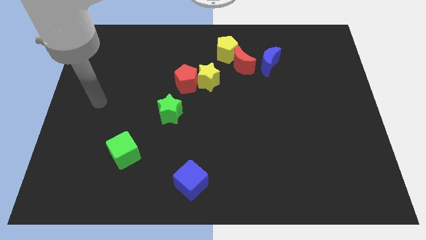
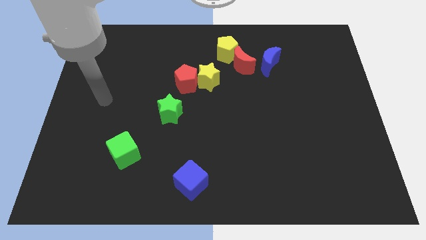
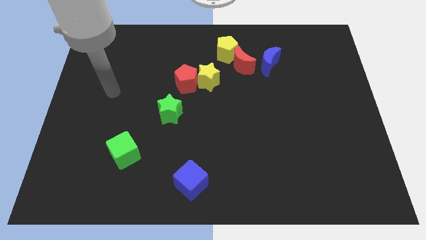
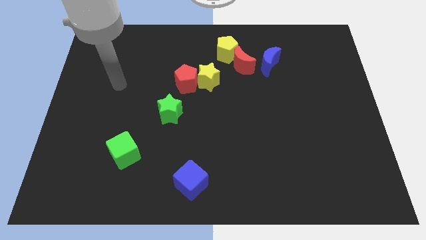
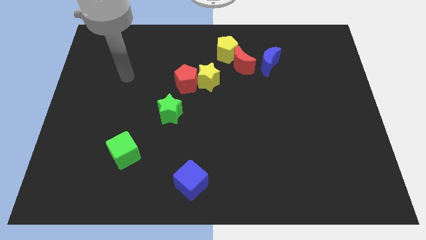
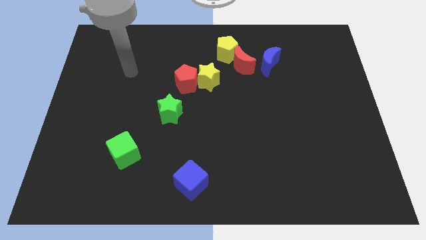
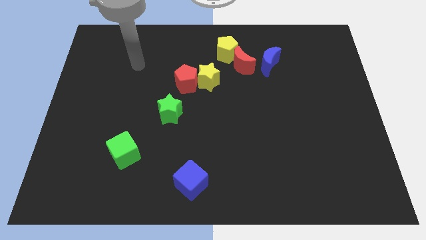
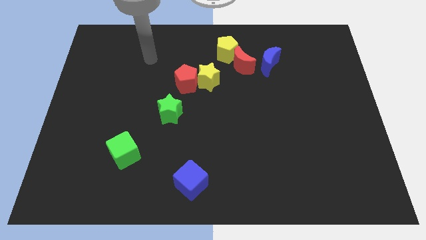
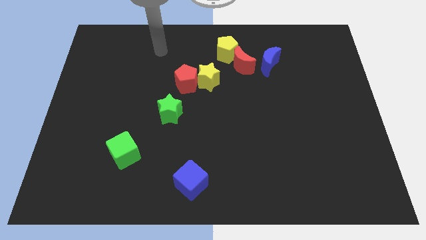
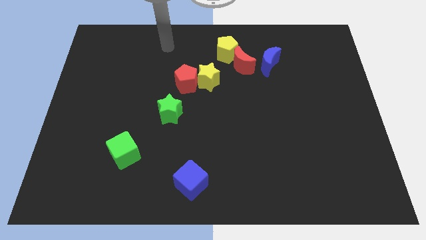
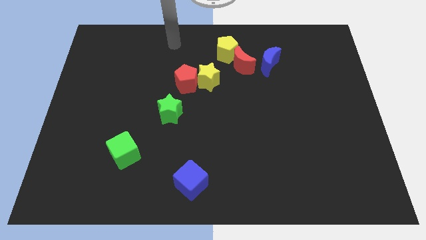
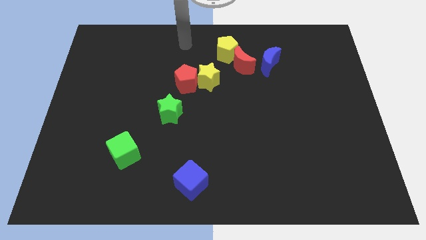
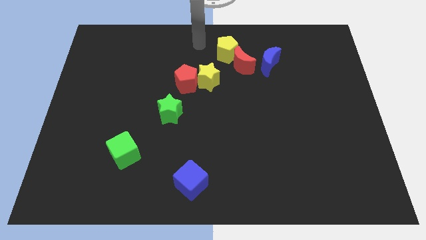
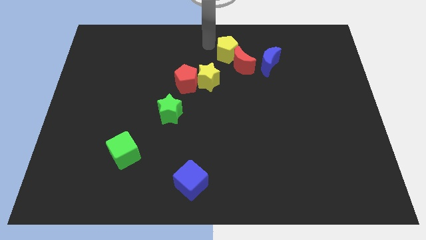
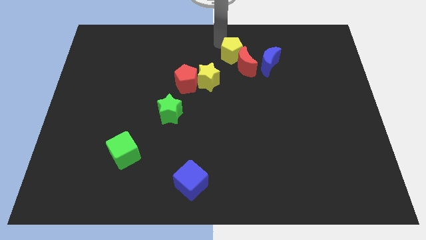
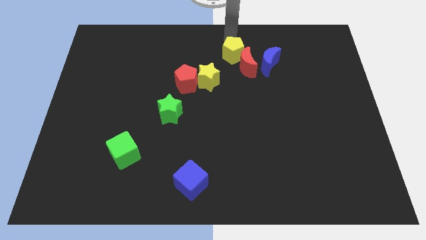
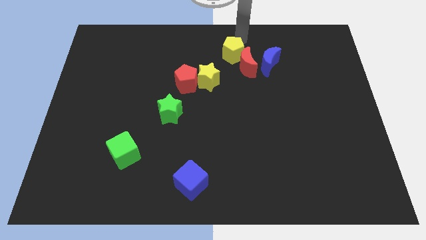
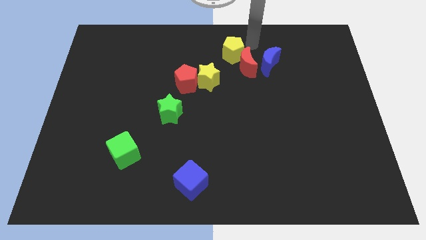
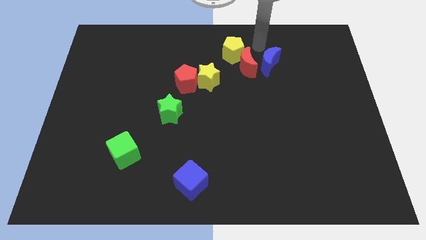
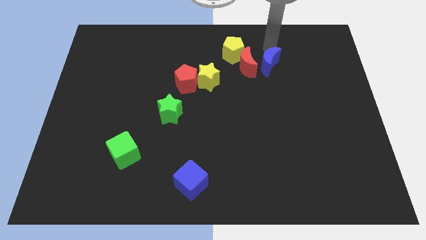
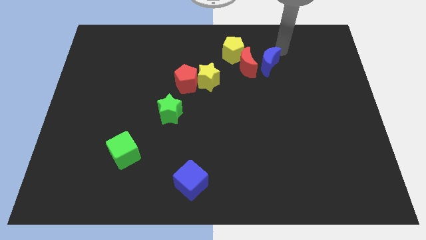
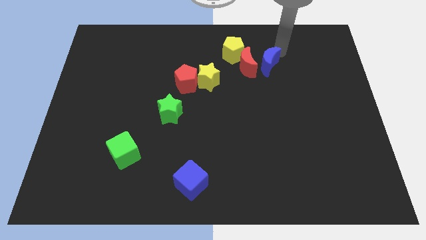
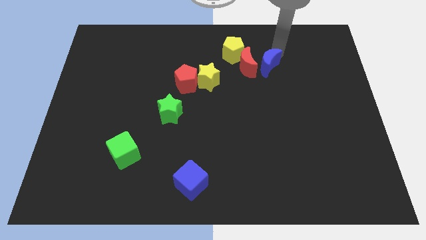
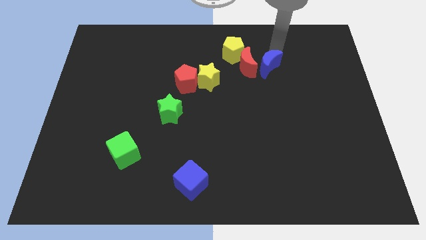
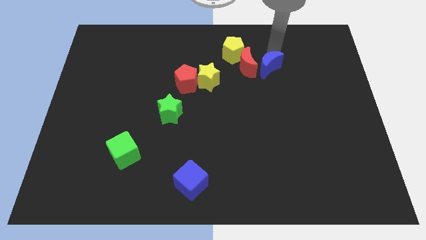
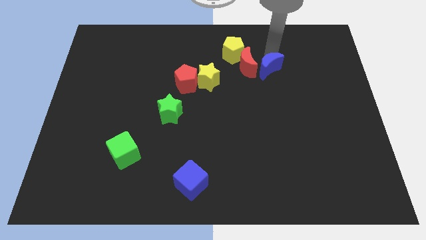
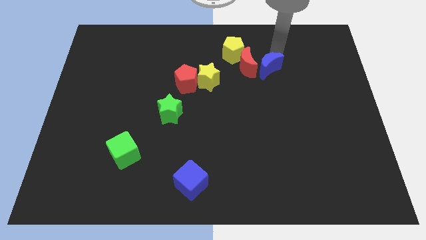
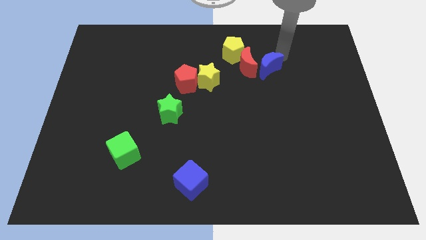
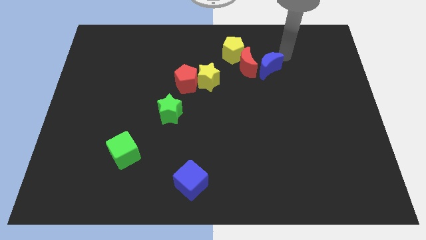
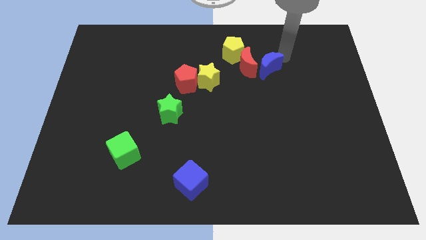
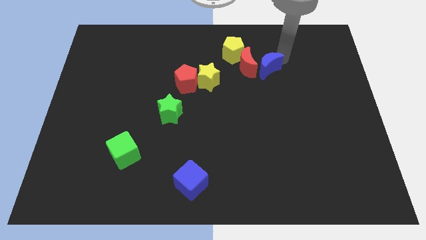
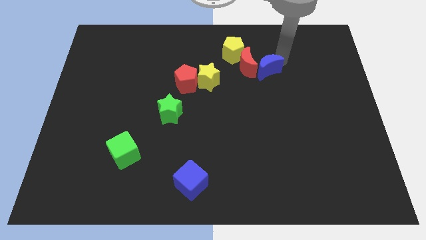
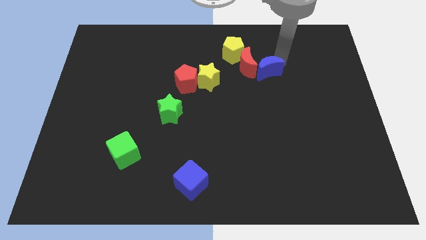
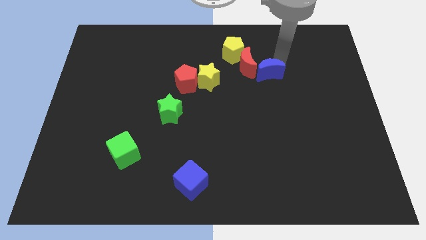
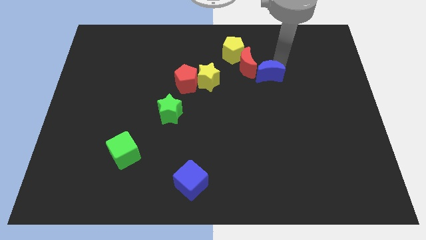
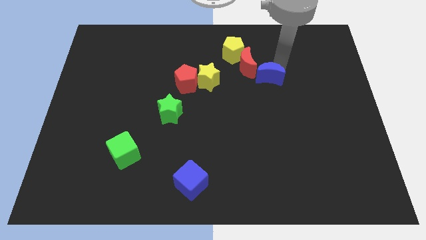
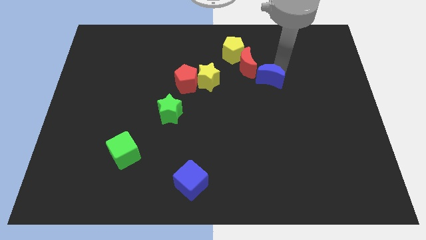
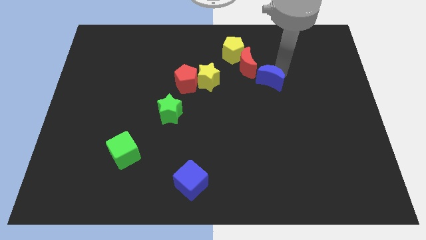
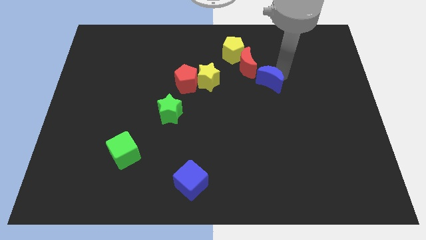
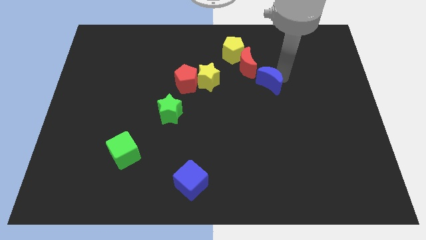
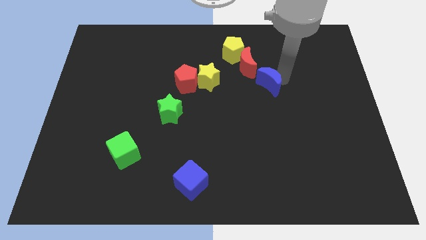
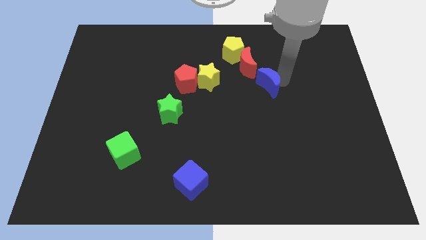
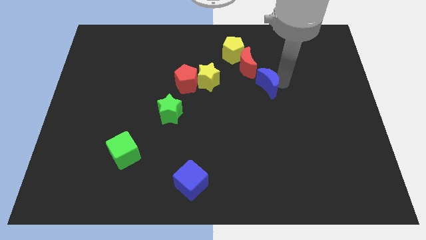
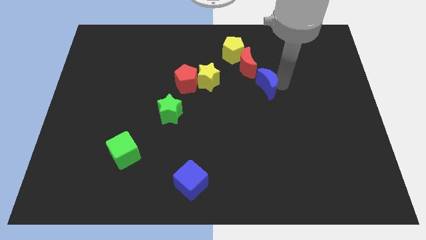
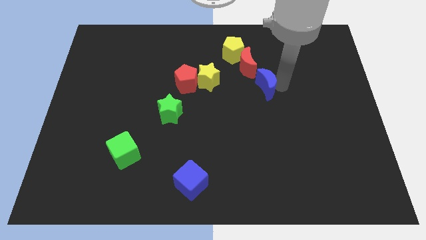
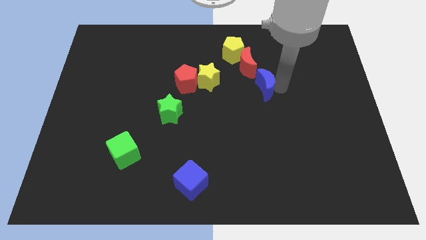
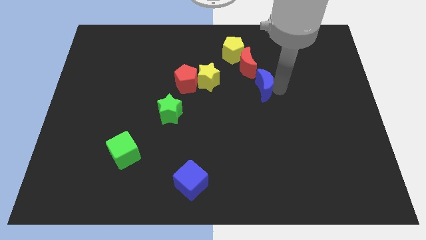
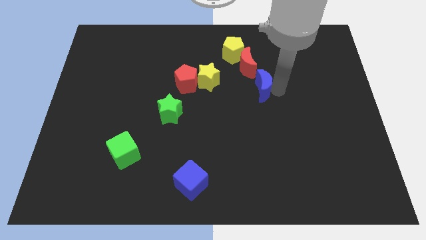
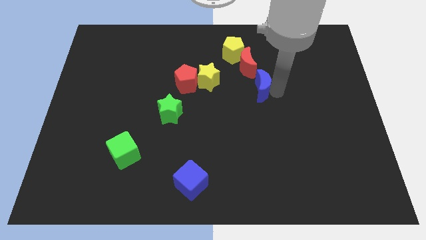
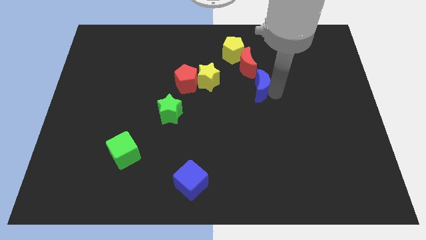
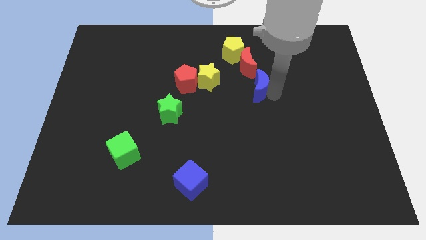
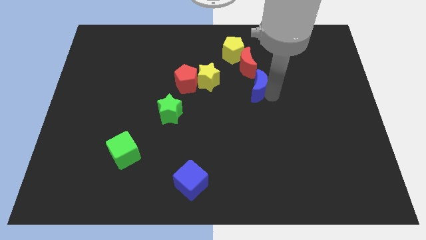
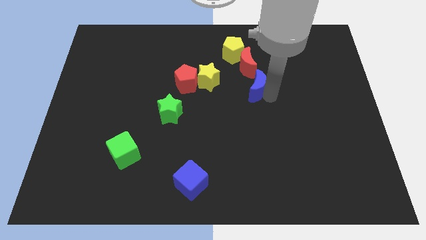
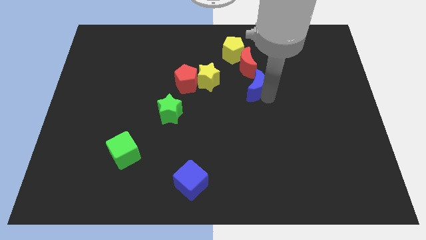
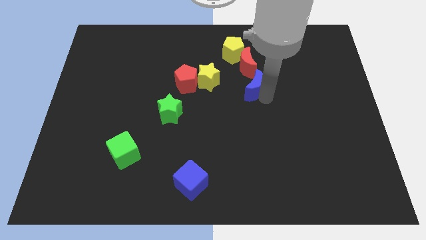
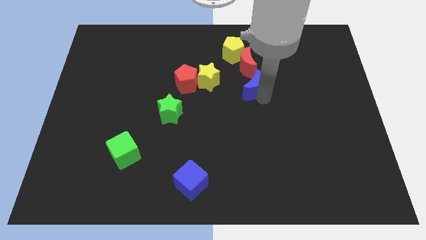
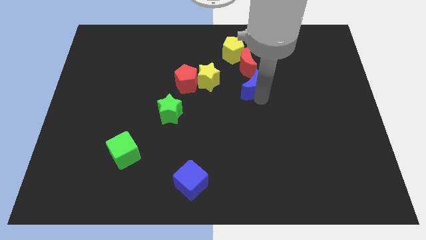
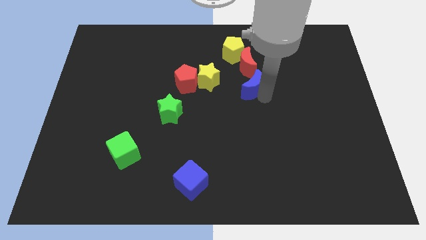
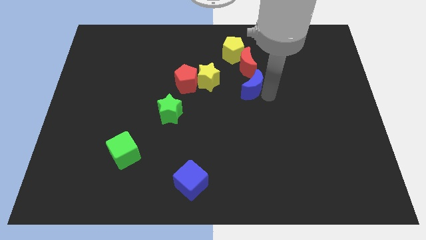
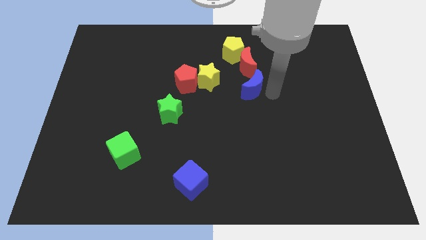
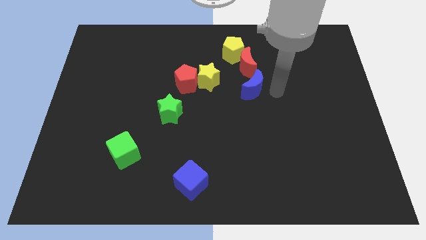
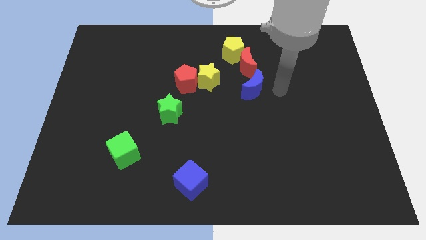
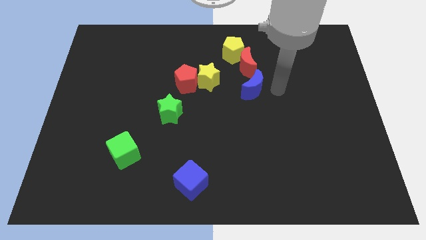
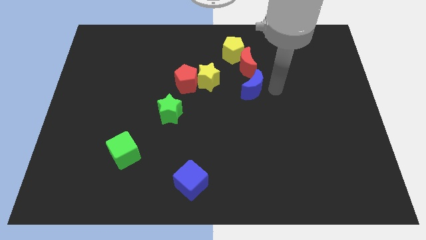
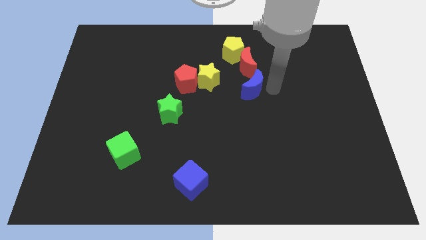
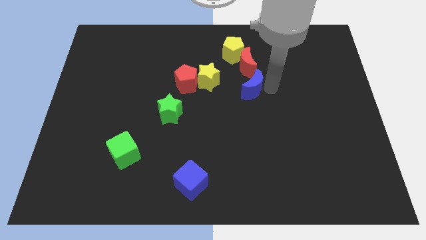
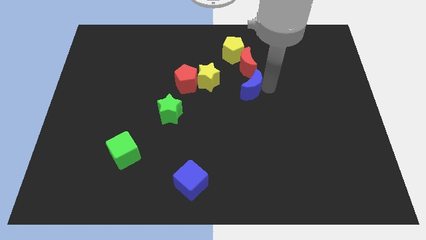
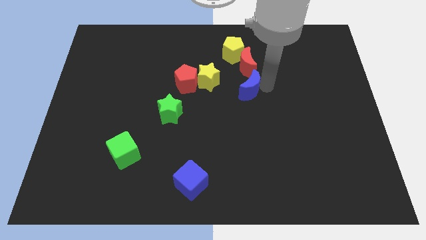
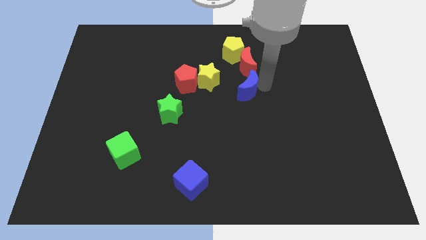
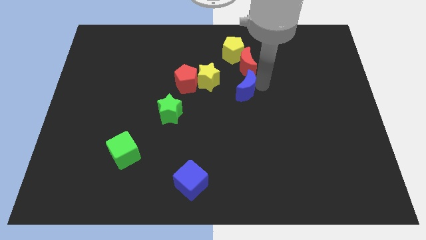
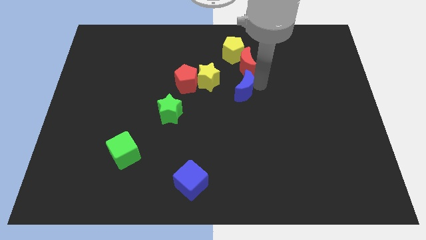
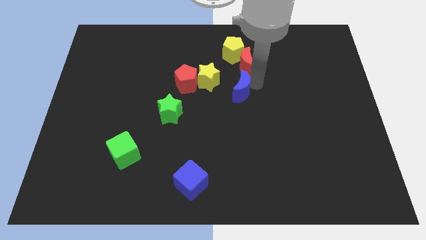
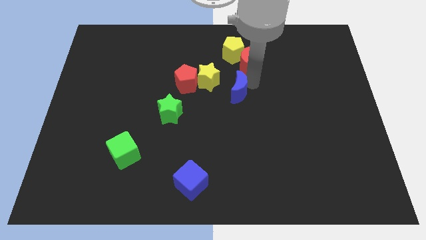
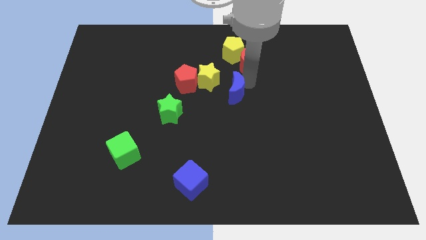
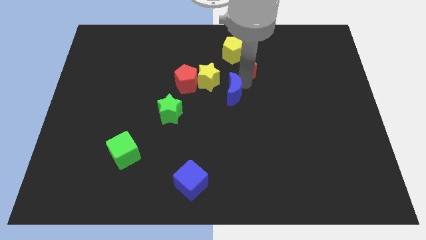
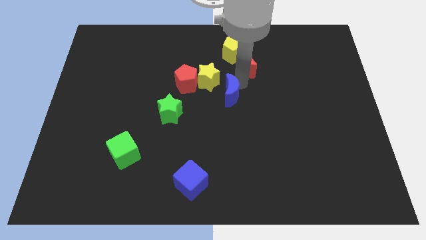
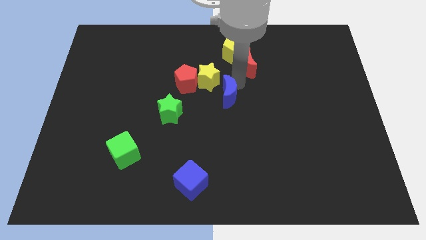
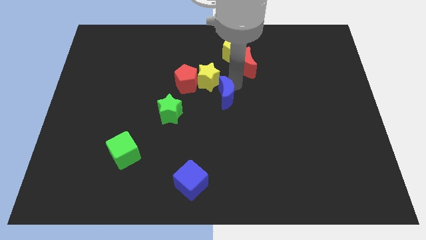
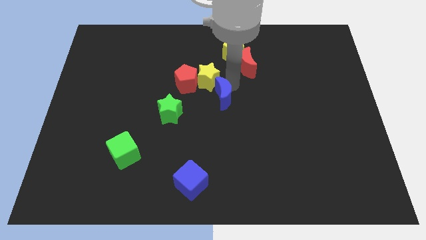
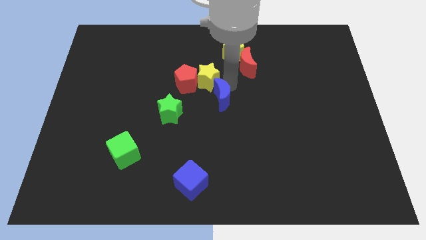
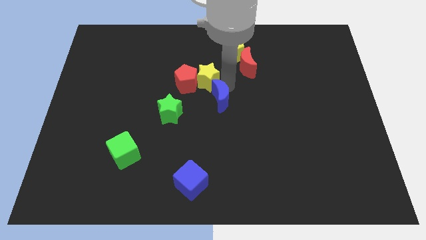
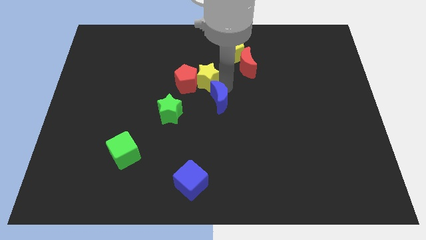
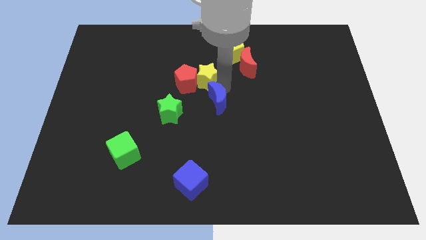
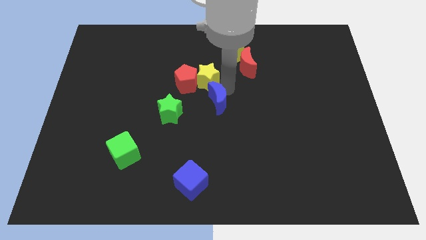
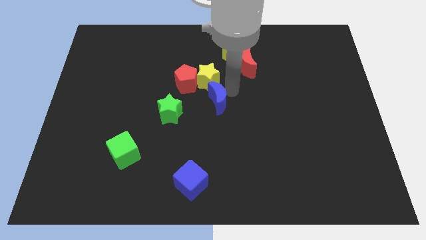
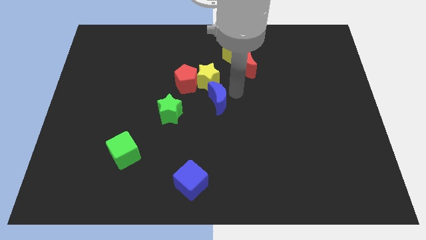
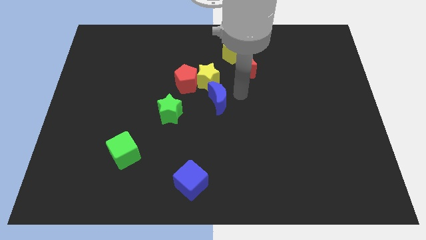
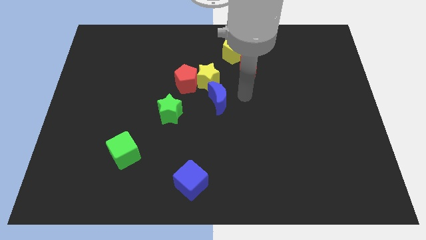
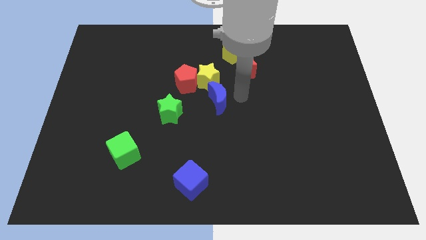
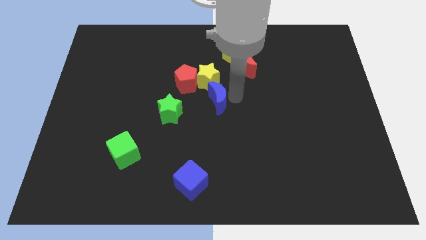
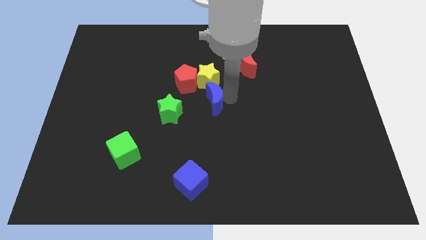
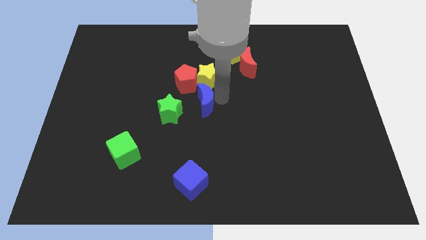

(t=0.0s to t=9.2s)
move the blue moon to the bottom side of the red pentagon
